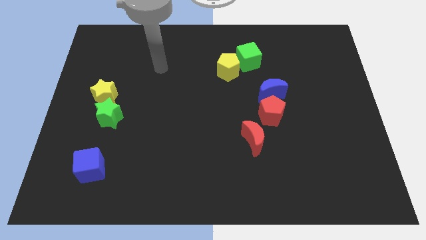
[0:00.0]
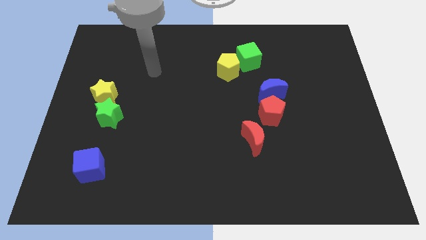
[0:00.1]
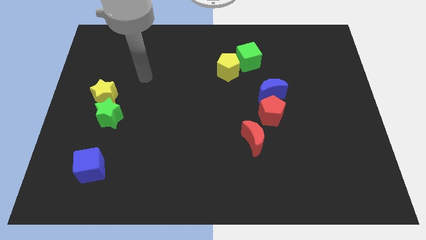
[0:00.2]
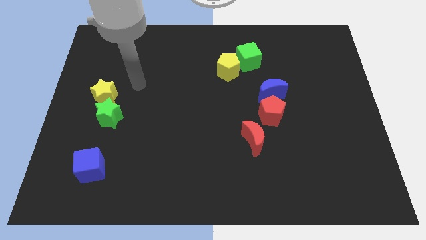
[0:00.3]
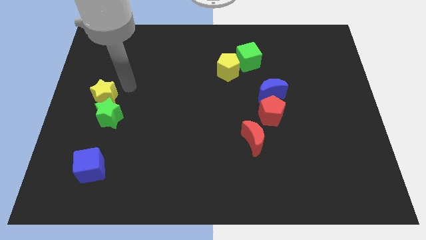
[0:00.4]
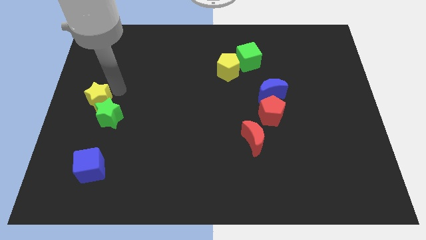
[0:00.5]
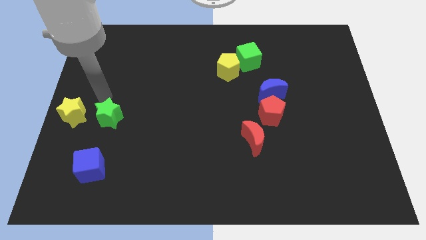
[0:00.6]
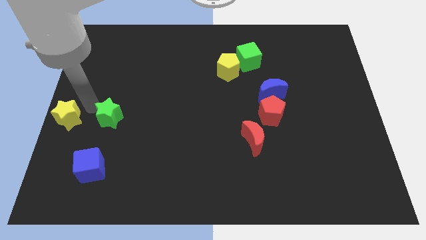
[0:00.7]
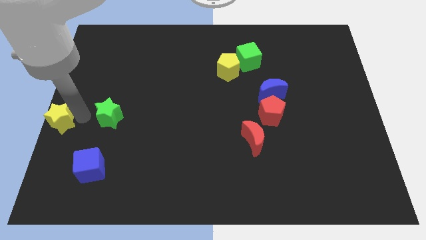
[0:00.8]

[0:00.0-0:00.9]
pull the green star apart from the yellow star

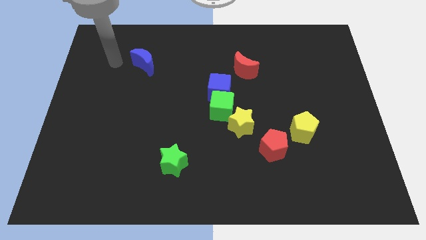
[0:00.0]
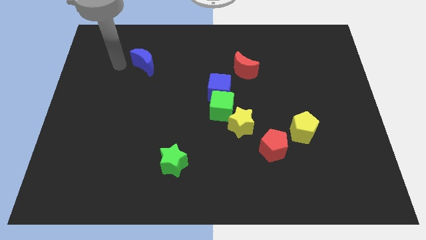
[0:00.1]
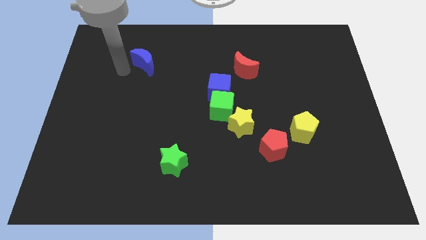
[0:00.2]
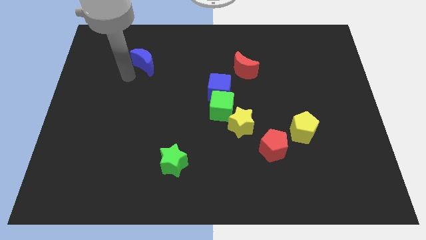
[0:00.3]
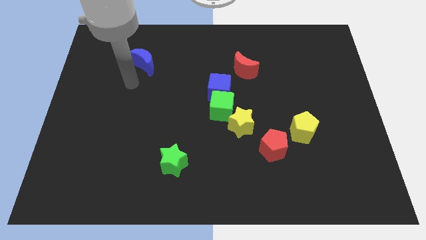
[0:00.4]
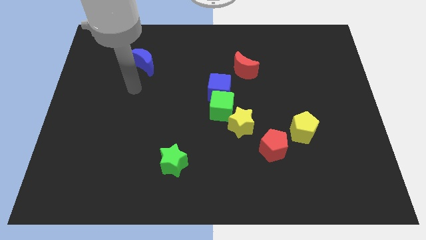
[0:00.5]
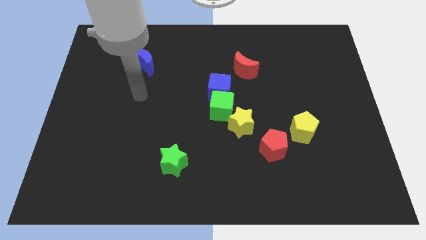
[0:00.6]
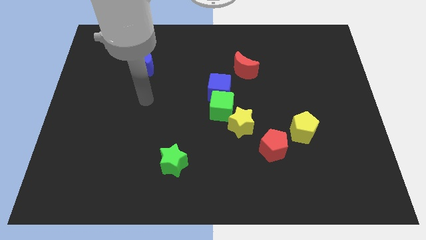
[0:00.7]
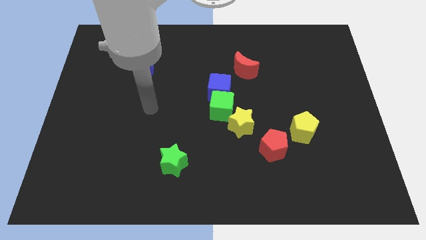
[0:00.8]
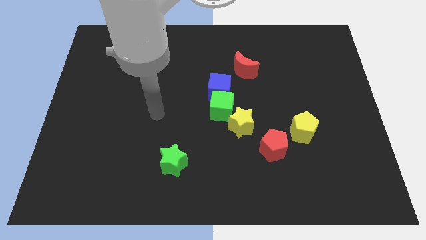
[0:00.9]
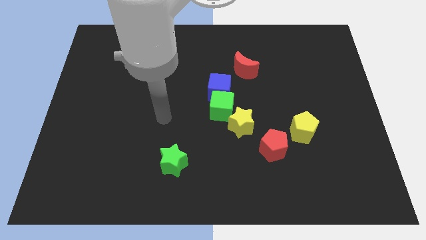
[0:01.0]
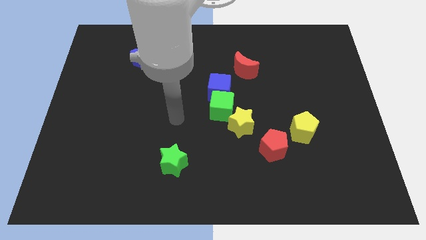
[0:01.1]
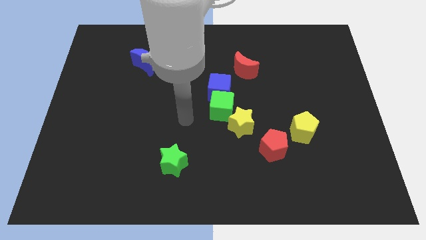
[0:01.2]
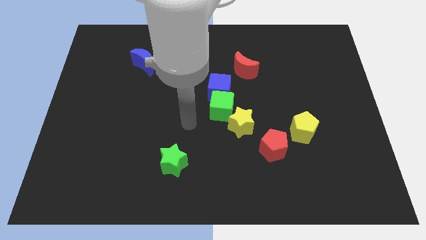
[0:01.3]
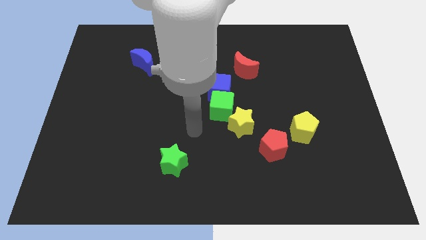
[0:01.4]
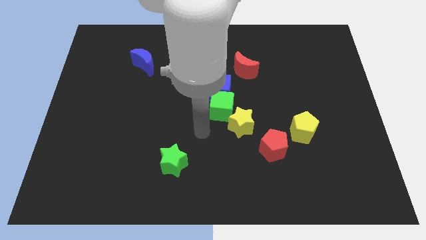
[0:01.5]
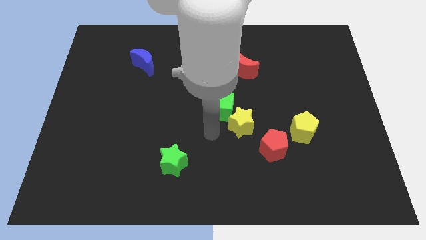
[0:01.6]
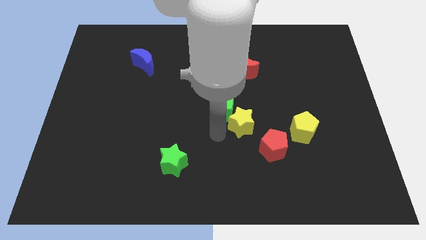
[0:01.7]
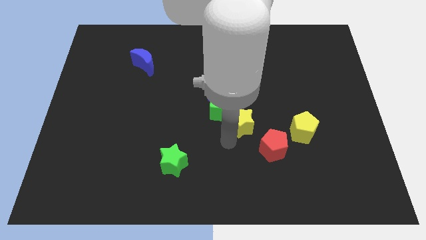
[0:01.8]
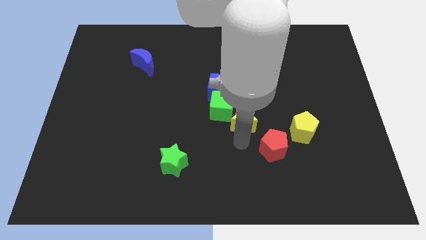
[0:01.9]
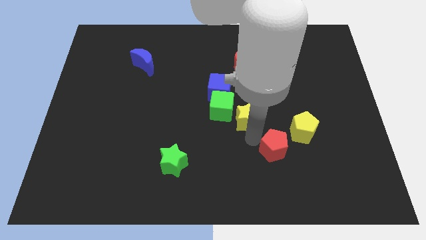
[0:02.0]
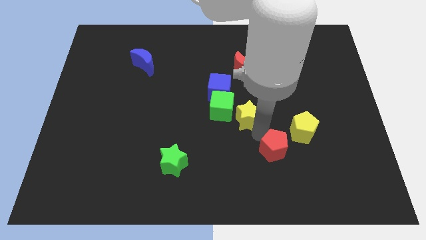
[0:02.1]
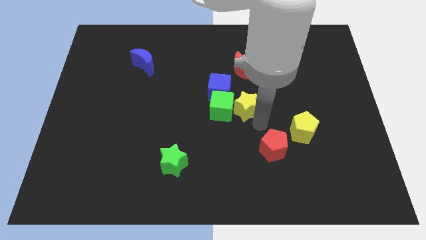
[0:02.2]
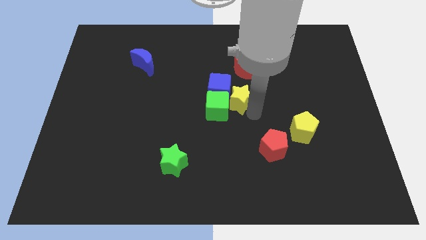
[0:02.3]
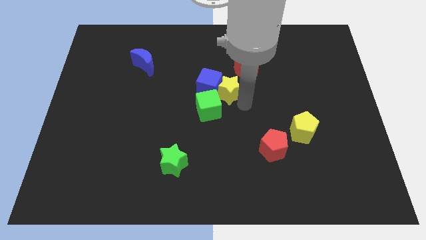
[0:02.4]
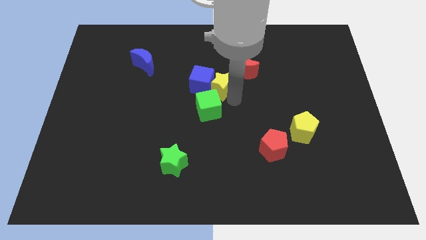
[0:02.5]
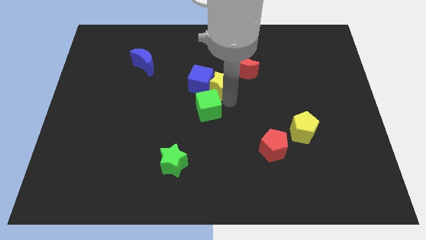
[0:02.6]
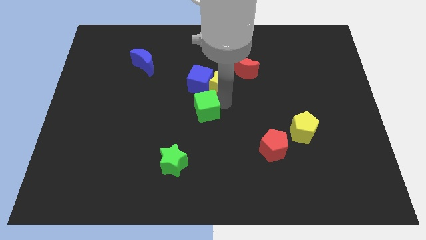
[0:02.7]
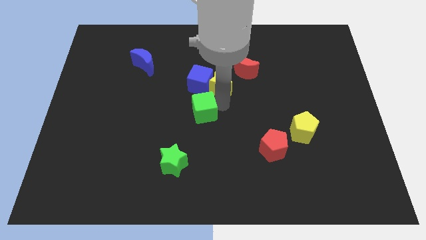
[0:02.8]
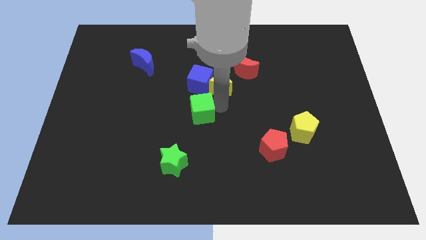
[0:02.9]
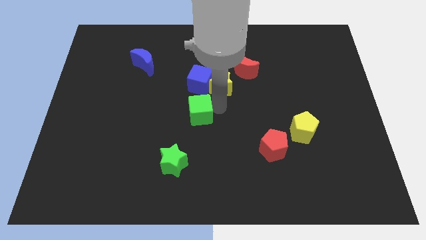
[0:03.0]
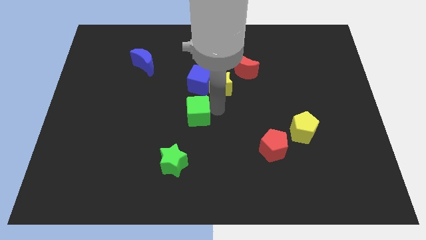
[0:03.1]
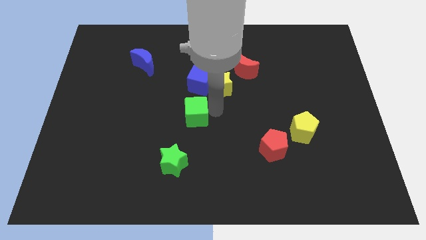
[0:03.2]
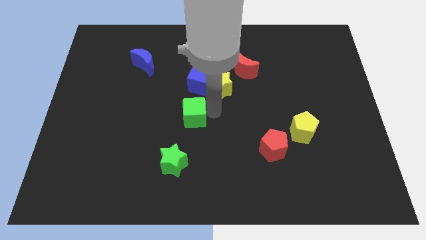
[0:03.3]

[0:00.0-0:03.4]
move the green cube away from the blue cube and yellow star

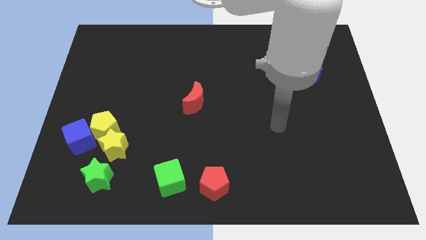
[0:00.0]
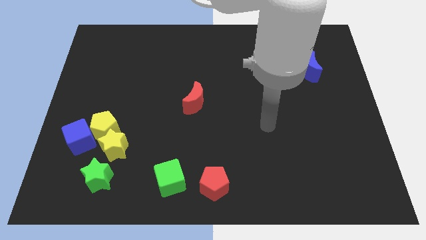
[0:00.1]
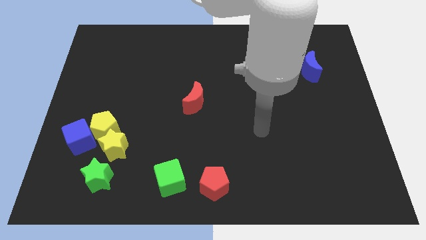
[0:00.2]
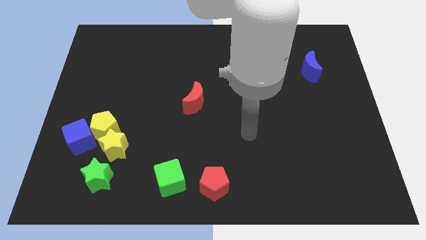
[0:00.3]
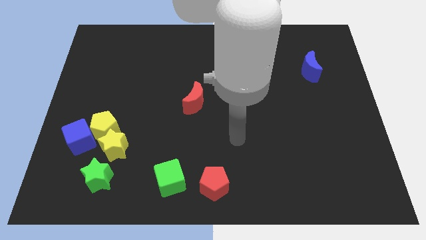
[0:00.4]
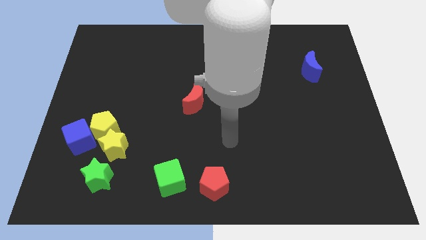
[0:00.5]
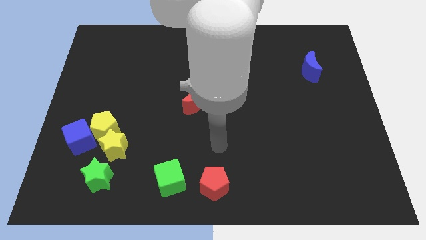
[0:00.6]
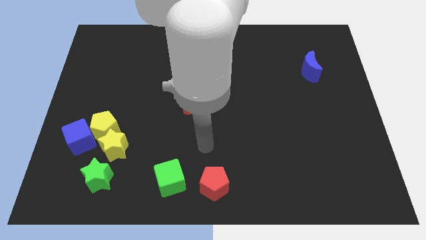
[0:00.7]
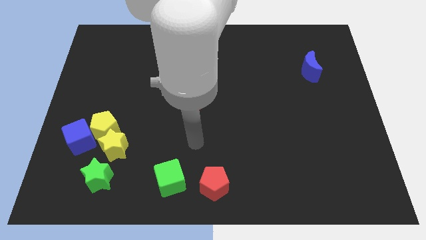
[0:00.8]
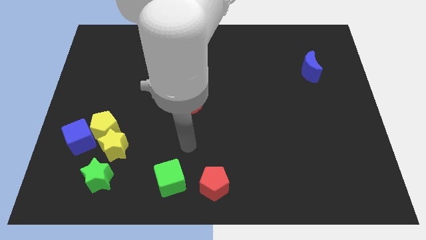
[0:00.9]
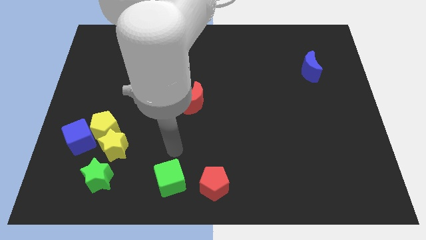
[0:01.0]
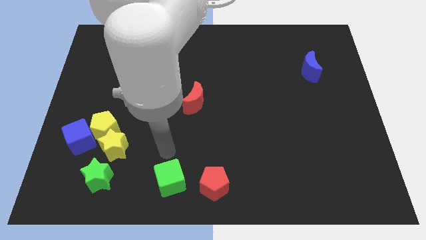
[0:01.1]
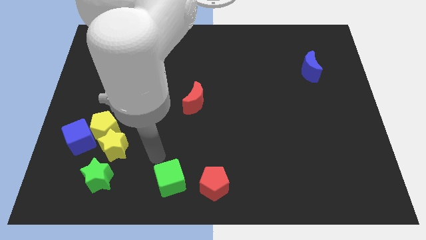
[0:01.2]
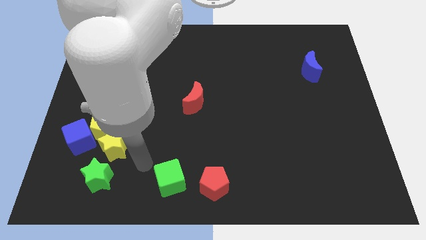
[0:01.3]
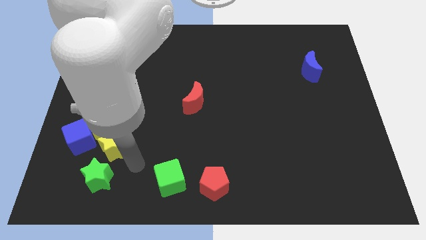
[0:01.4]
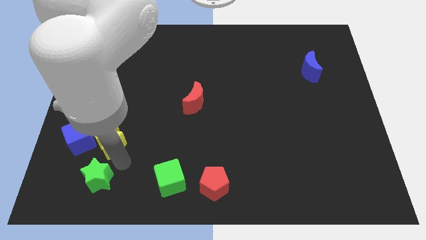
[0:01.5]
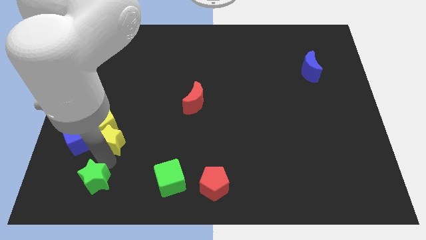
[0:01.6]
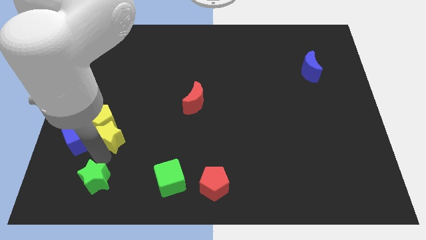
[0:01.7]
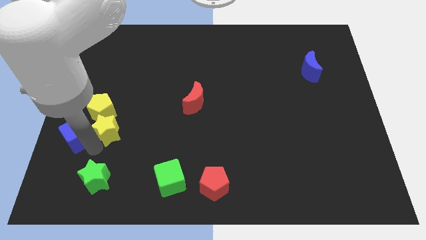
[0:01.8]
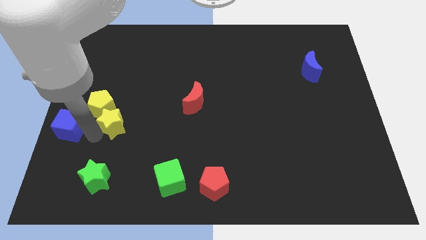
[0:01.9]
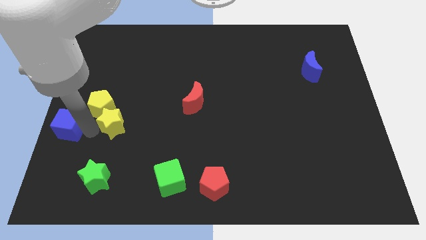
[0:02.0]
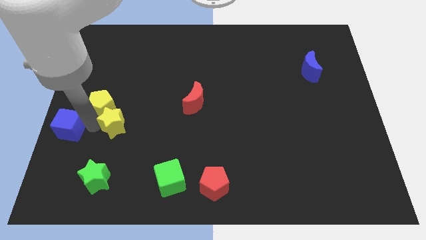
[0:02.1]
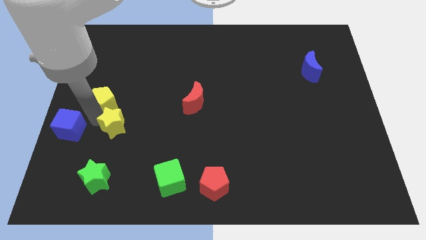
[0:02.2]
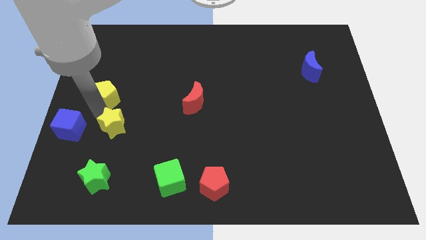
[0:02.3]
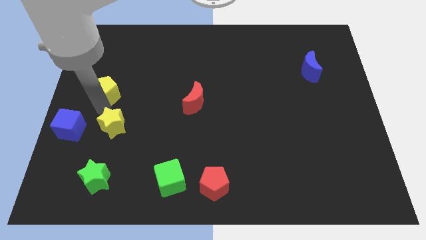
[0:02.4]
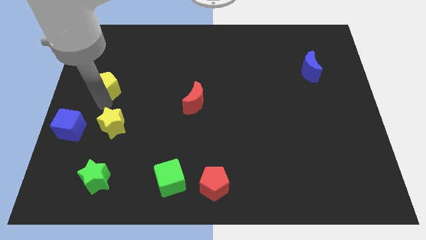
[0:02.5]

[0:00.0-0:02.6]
move the yellow pentagon away from the yellow star and blue cube

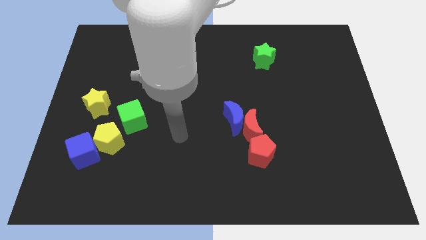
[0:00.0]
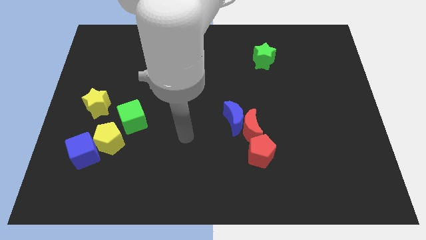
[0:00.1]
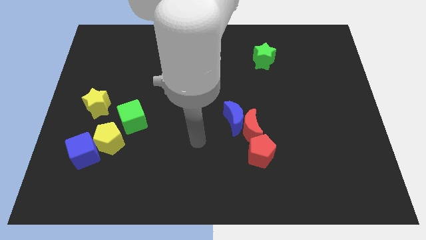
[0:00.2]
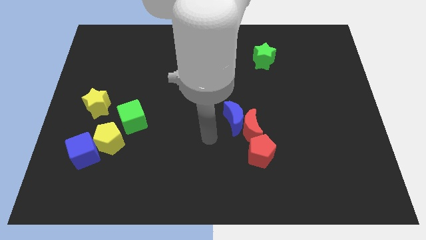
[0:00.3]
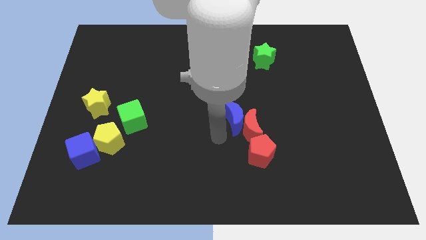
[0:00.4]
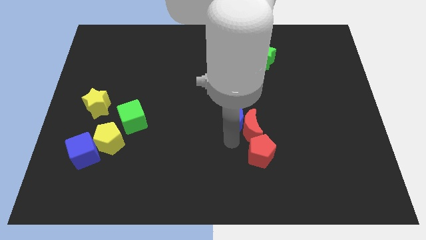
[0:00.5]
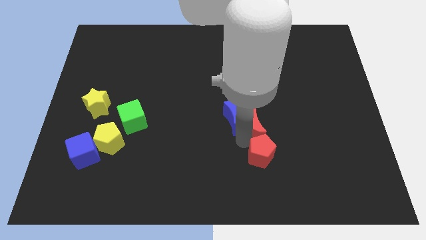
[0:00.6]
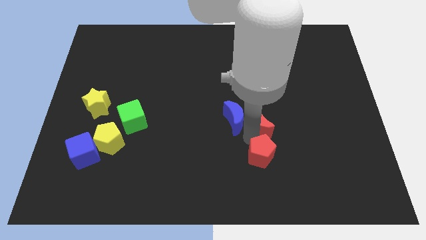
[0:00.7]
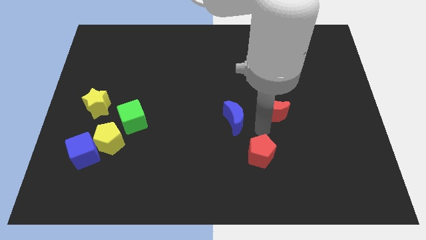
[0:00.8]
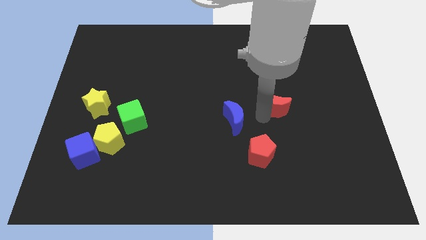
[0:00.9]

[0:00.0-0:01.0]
move the blue moon away from the red moon

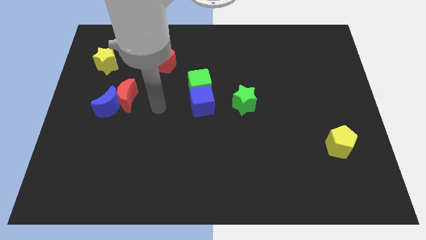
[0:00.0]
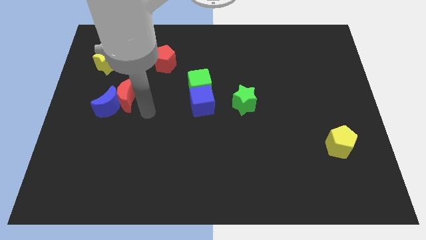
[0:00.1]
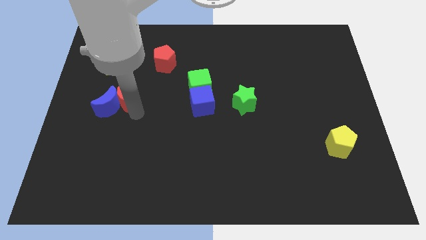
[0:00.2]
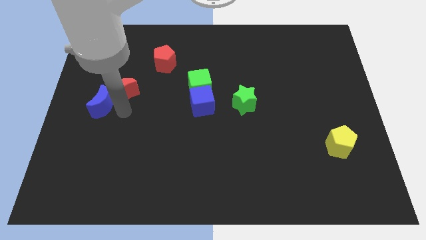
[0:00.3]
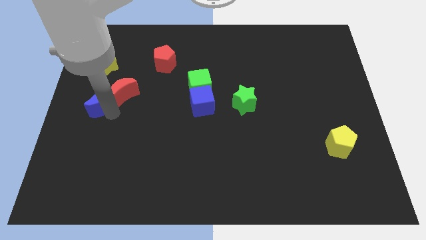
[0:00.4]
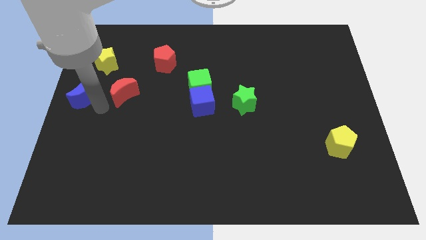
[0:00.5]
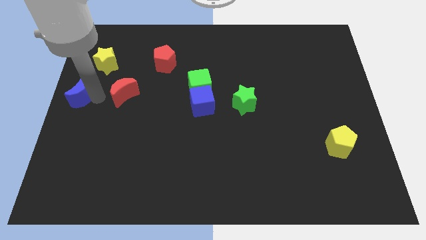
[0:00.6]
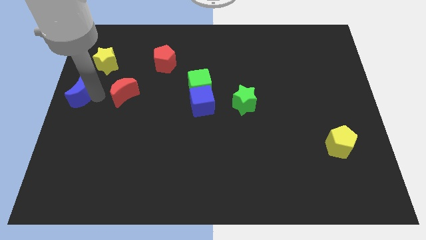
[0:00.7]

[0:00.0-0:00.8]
move the red moon away from the blue moon

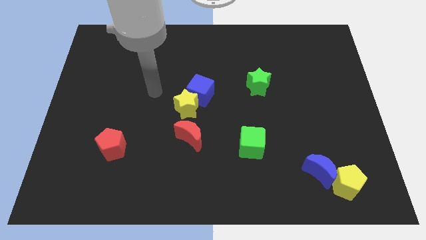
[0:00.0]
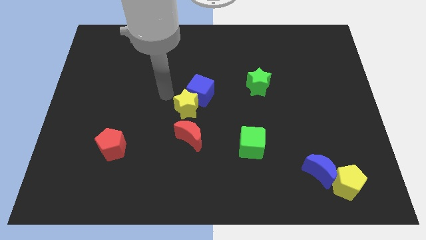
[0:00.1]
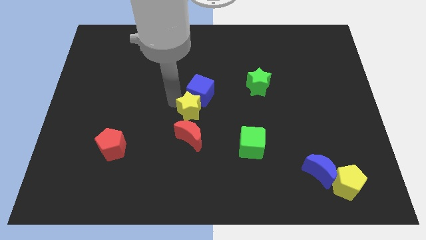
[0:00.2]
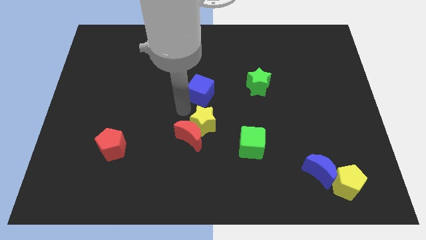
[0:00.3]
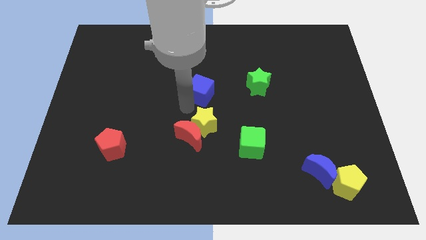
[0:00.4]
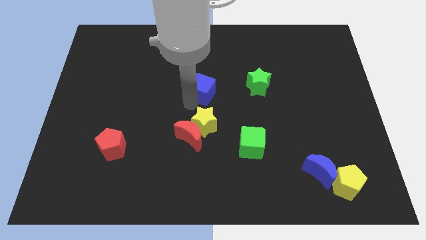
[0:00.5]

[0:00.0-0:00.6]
move the blue cube away from the yellow star
